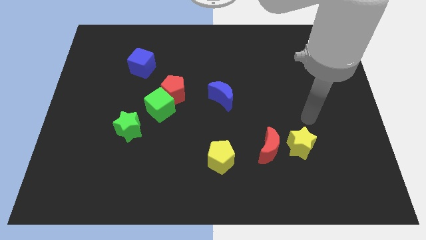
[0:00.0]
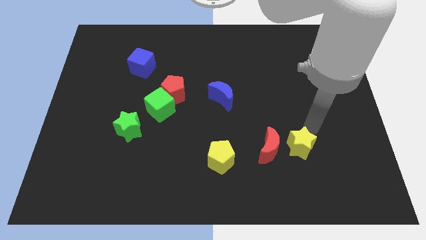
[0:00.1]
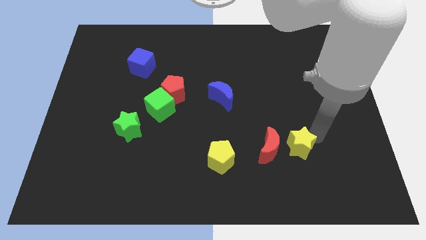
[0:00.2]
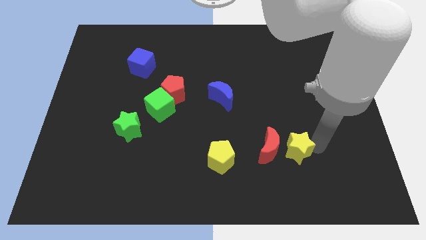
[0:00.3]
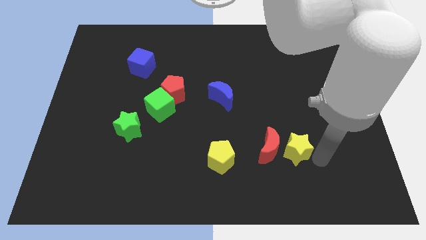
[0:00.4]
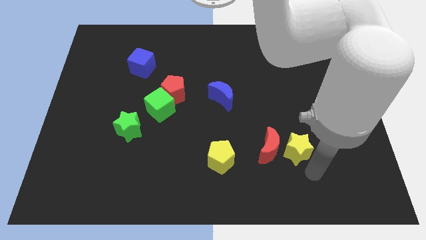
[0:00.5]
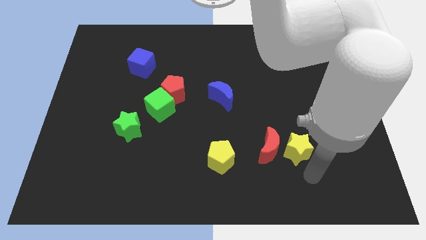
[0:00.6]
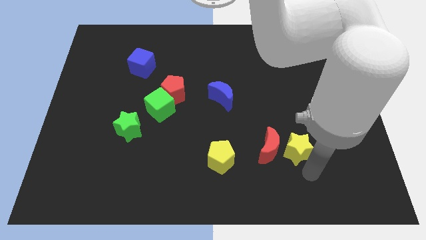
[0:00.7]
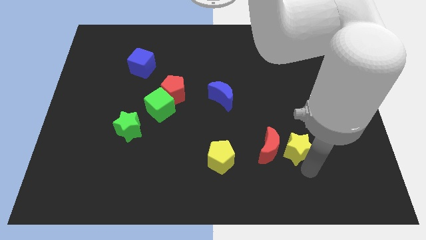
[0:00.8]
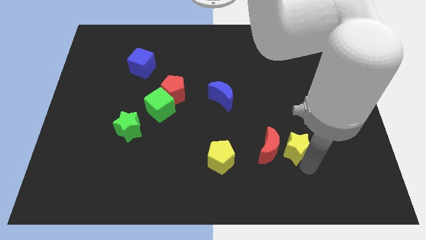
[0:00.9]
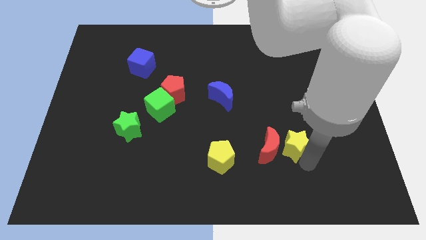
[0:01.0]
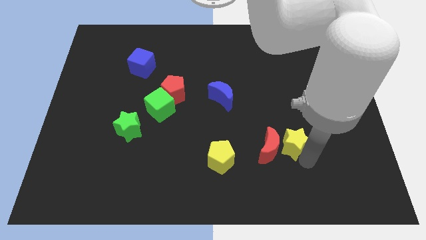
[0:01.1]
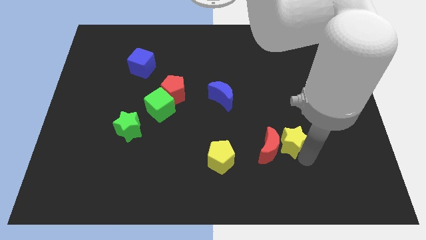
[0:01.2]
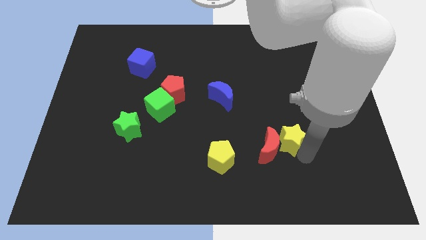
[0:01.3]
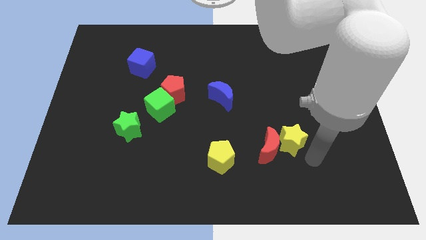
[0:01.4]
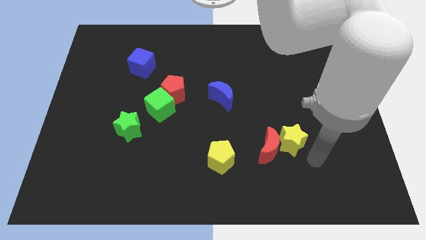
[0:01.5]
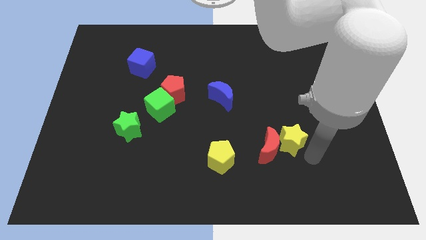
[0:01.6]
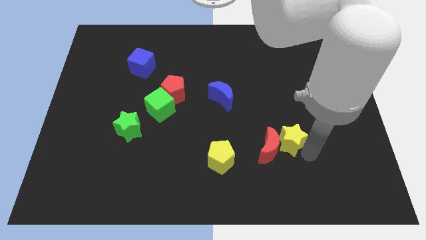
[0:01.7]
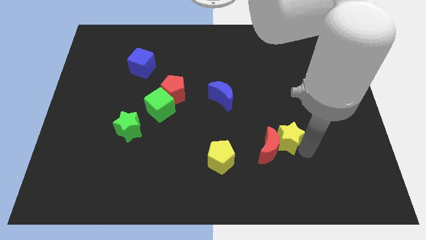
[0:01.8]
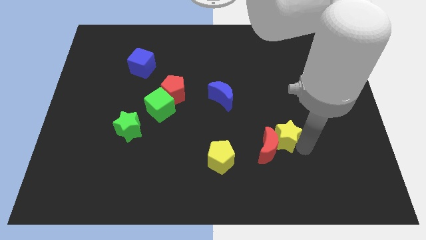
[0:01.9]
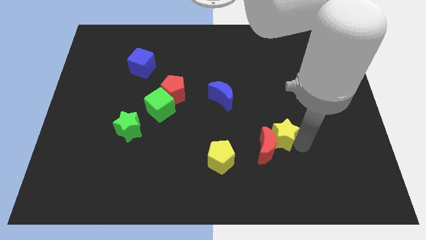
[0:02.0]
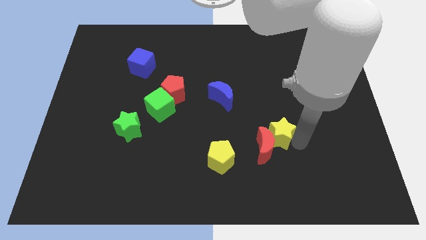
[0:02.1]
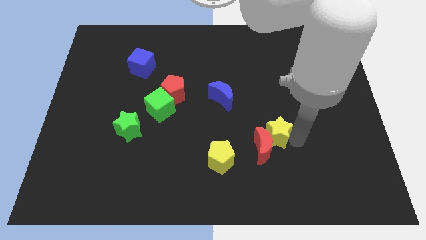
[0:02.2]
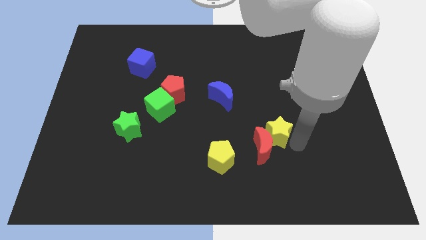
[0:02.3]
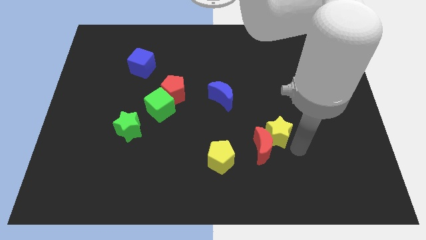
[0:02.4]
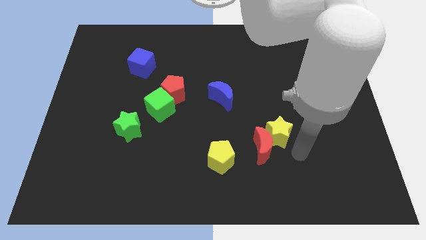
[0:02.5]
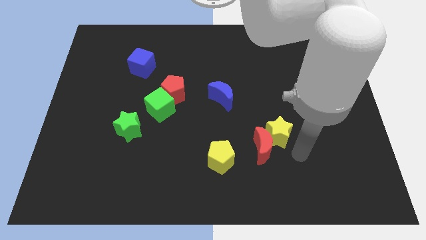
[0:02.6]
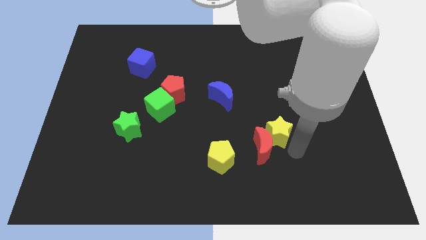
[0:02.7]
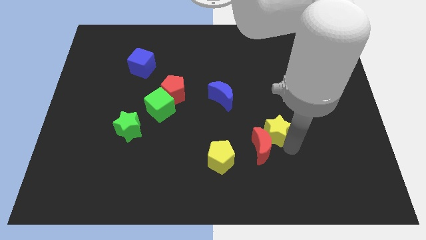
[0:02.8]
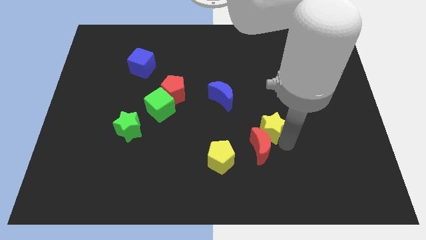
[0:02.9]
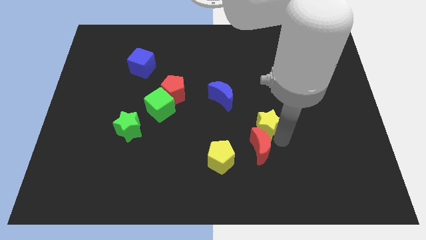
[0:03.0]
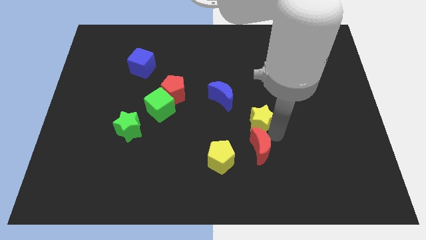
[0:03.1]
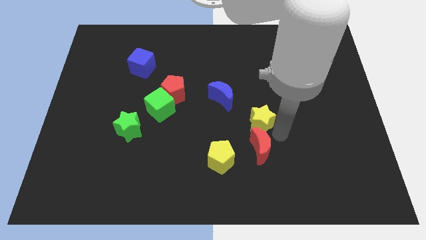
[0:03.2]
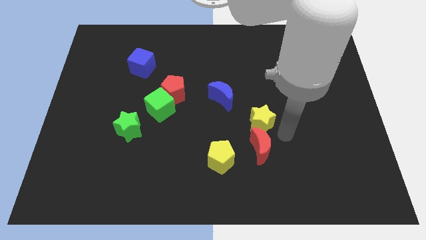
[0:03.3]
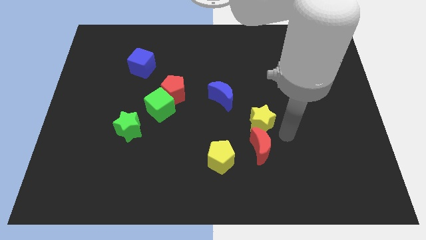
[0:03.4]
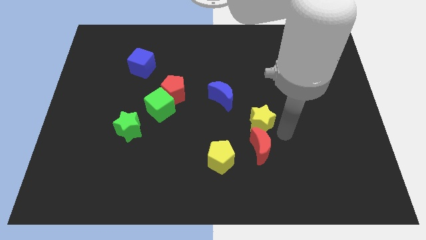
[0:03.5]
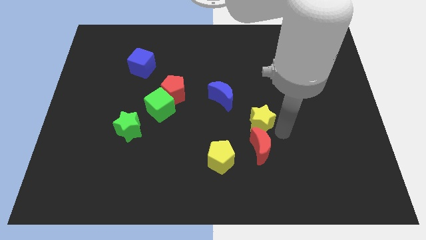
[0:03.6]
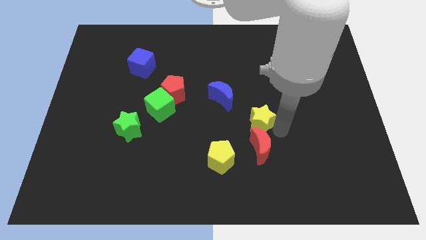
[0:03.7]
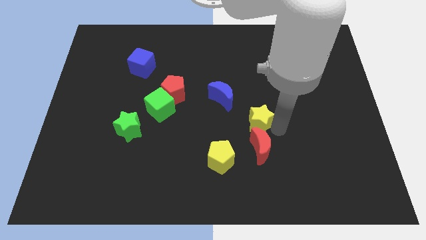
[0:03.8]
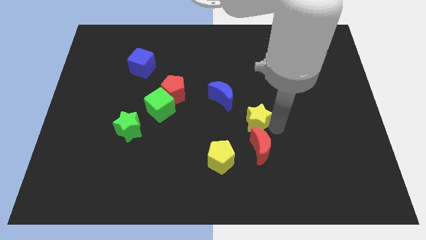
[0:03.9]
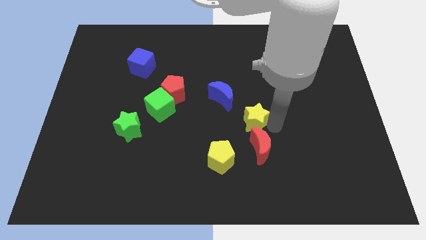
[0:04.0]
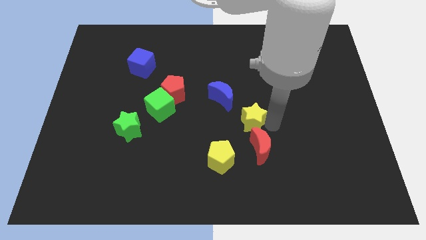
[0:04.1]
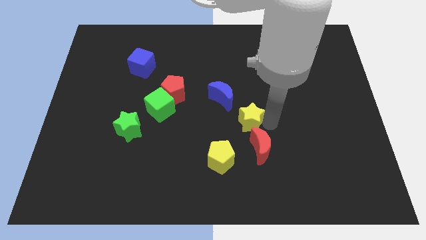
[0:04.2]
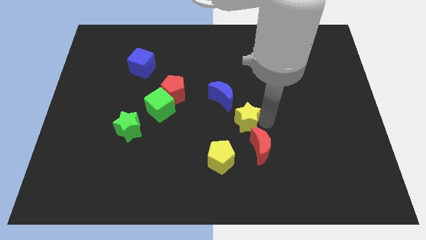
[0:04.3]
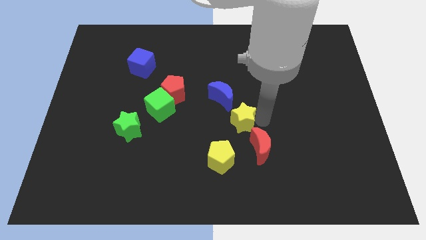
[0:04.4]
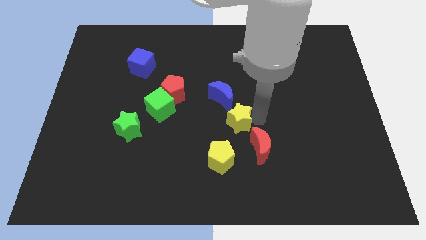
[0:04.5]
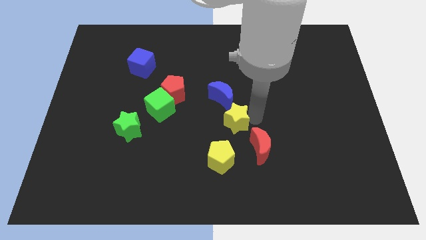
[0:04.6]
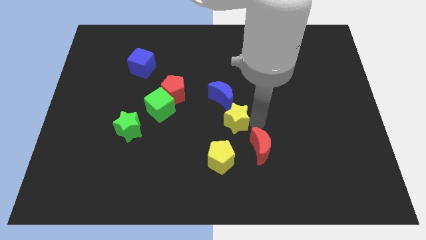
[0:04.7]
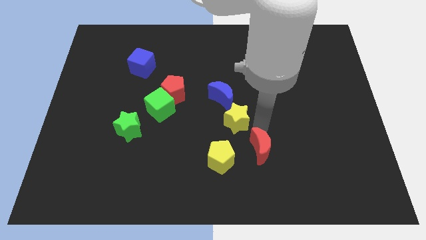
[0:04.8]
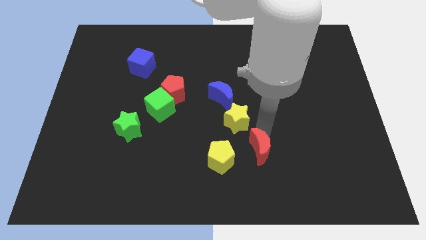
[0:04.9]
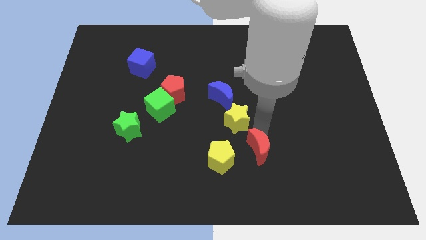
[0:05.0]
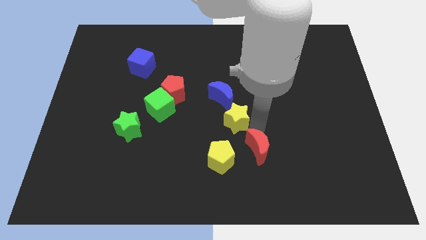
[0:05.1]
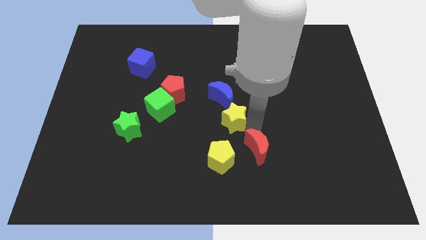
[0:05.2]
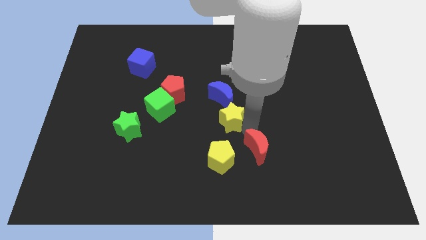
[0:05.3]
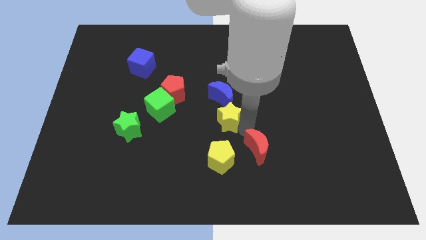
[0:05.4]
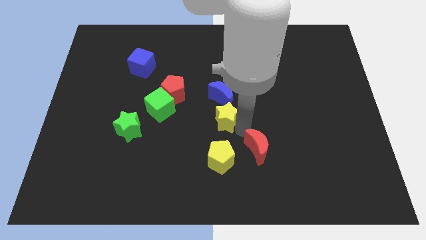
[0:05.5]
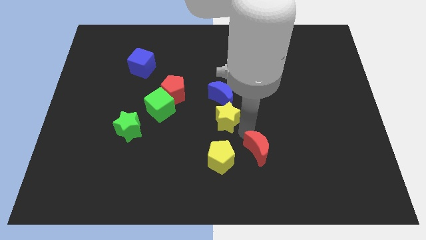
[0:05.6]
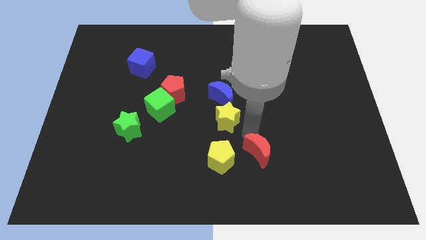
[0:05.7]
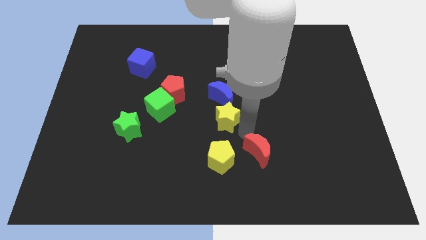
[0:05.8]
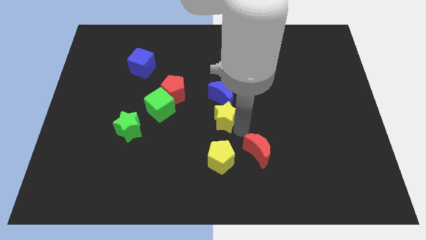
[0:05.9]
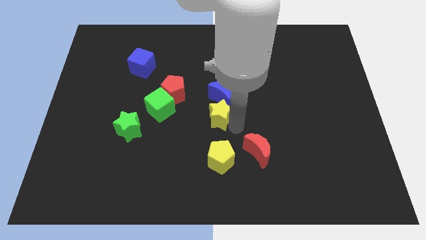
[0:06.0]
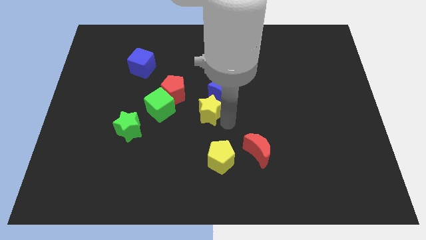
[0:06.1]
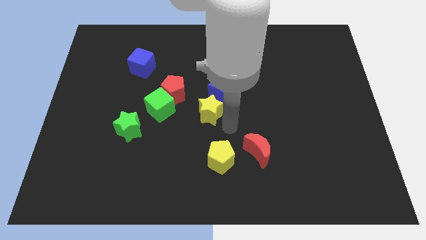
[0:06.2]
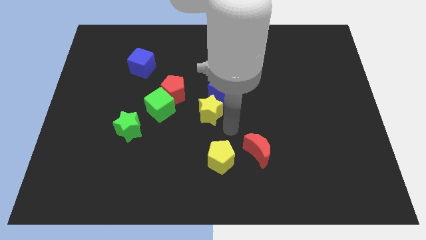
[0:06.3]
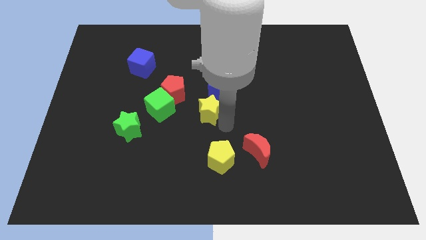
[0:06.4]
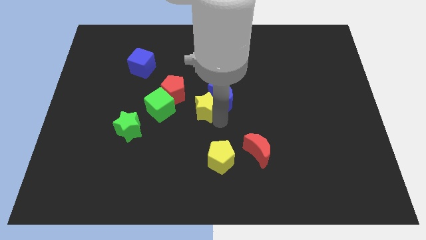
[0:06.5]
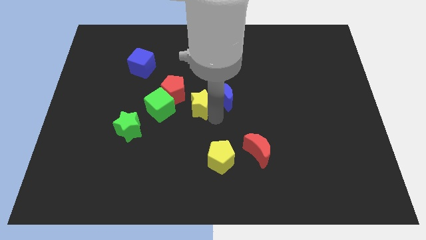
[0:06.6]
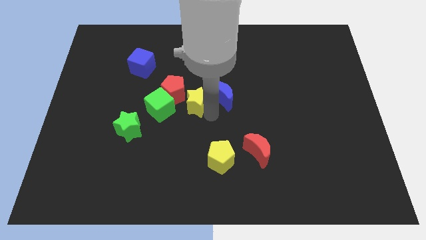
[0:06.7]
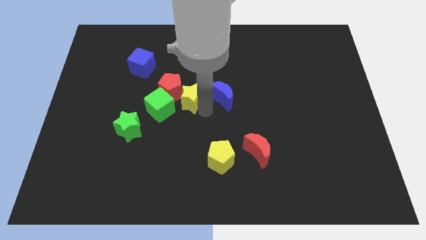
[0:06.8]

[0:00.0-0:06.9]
put the yellow star next to the red pentagon

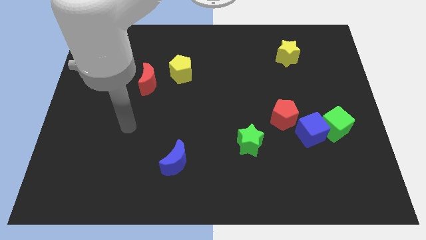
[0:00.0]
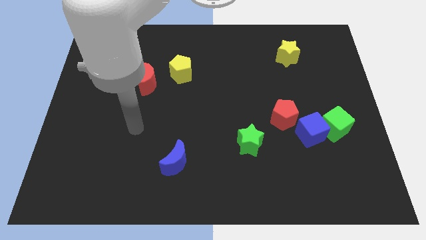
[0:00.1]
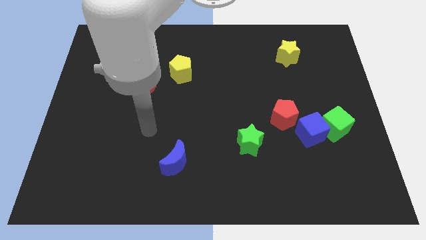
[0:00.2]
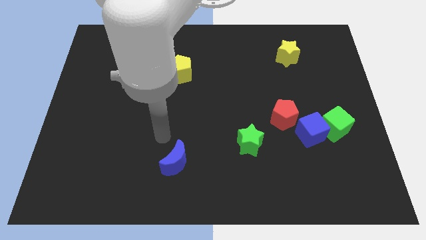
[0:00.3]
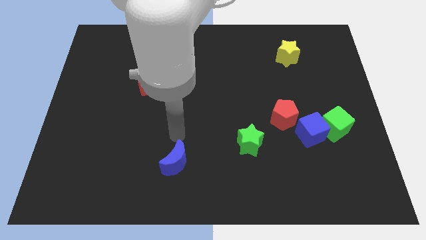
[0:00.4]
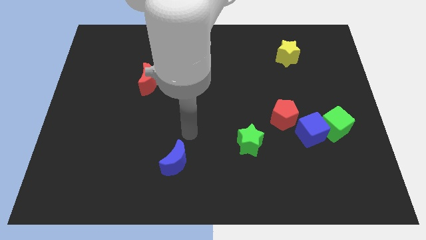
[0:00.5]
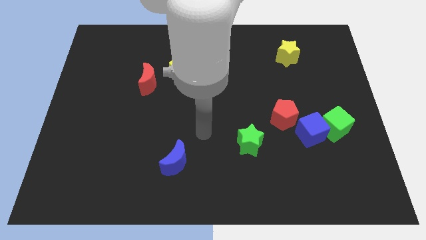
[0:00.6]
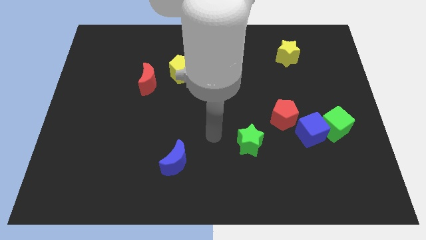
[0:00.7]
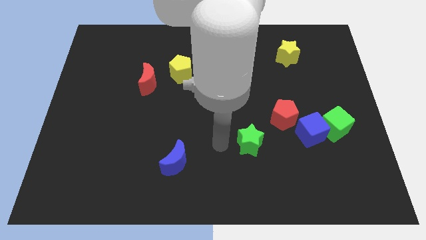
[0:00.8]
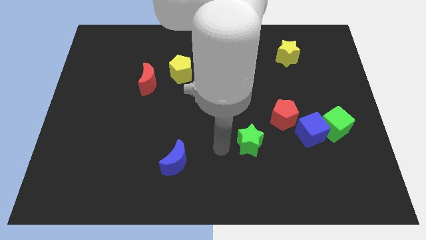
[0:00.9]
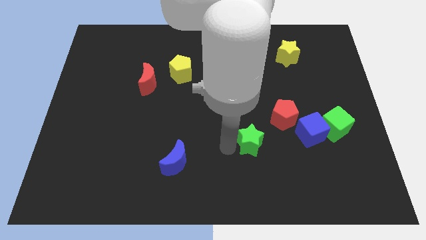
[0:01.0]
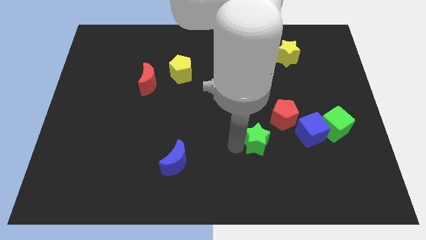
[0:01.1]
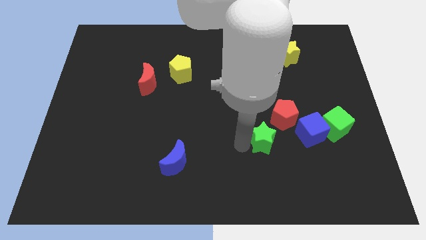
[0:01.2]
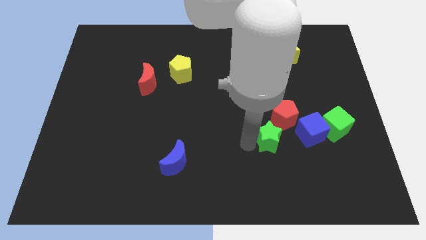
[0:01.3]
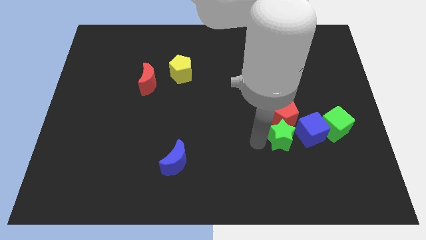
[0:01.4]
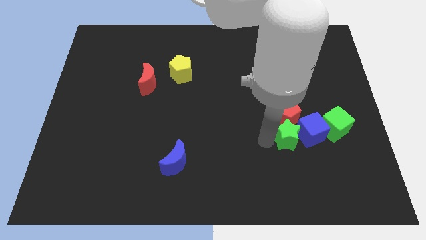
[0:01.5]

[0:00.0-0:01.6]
push the green star to the blue cube
